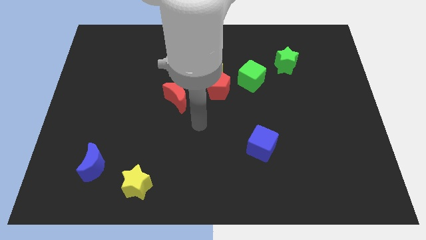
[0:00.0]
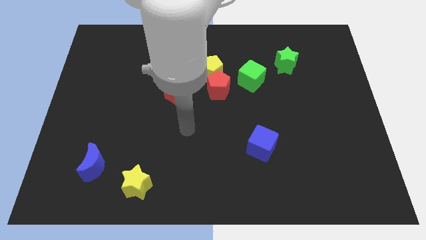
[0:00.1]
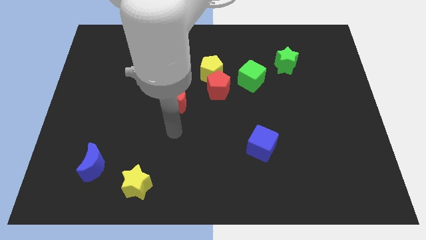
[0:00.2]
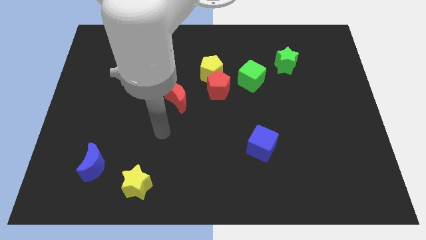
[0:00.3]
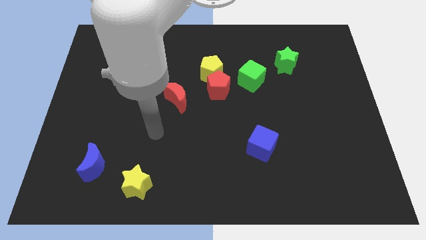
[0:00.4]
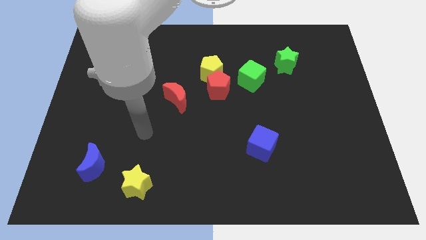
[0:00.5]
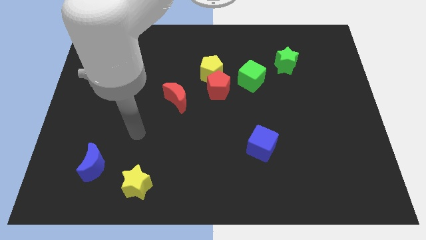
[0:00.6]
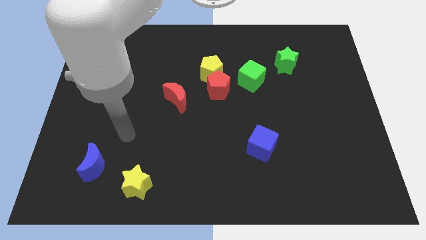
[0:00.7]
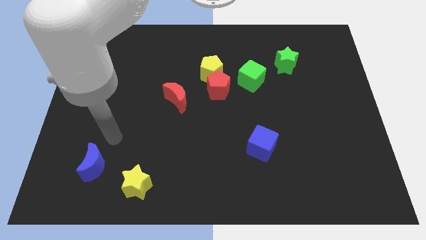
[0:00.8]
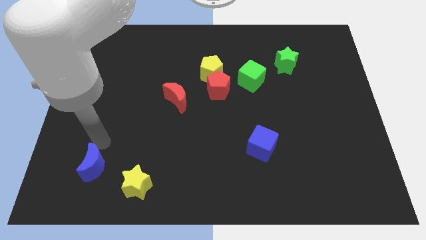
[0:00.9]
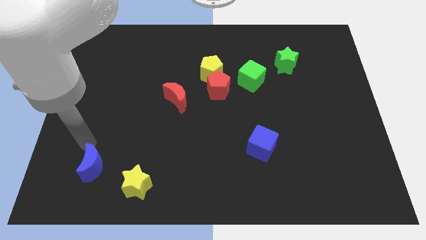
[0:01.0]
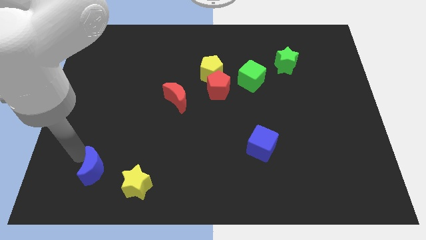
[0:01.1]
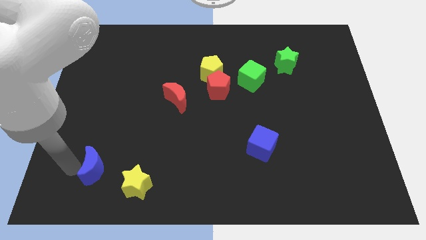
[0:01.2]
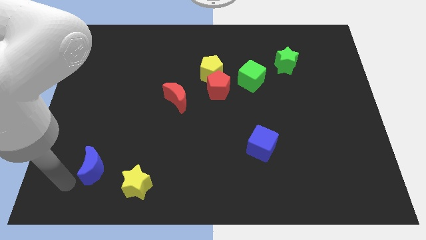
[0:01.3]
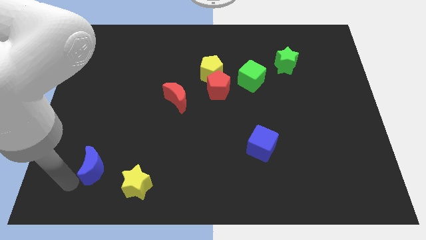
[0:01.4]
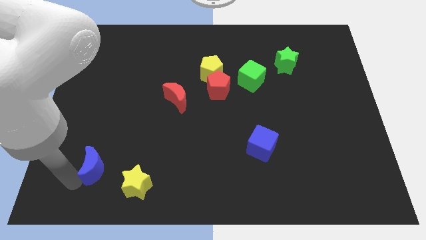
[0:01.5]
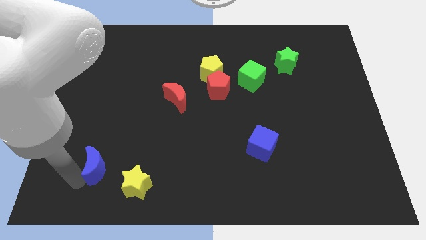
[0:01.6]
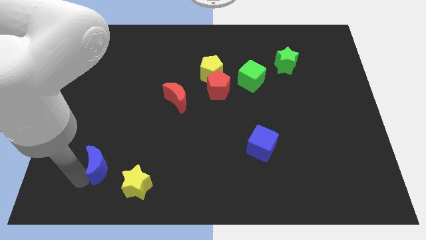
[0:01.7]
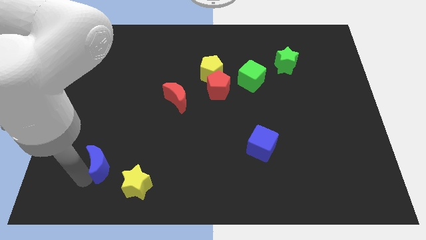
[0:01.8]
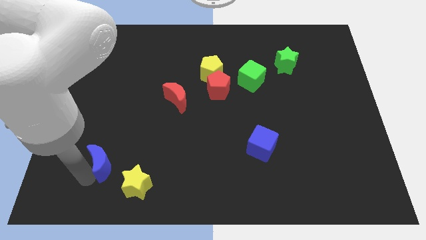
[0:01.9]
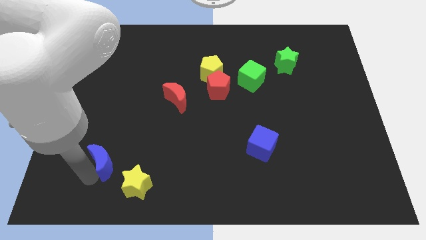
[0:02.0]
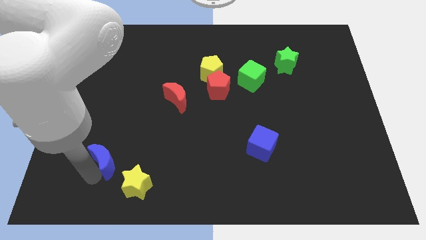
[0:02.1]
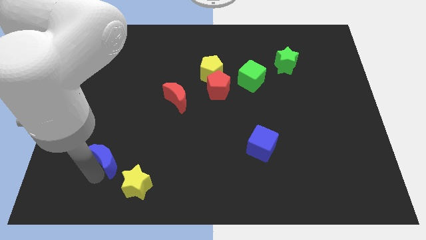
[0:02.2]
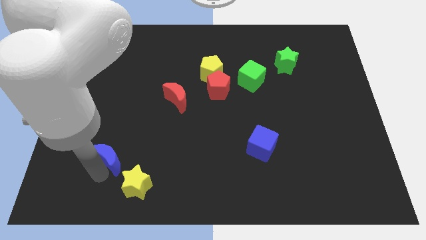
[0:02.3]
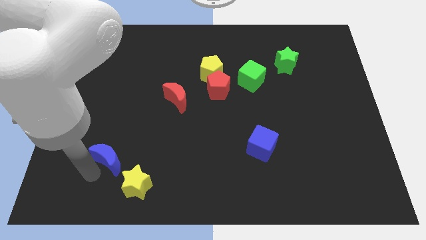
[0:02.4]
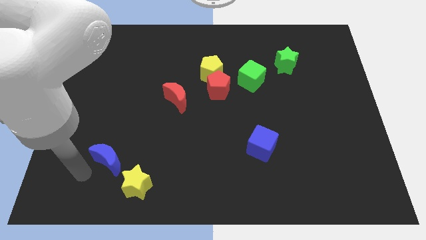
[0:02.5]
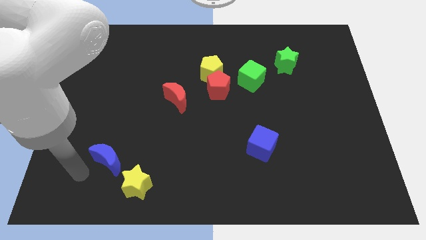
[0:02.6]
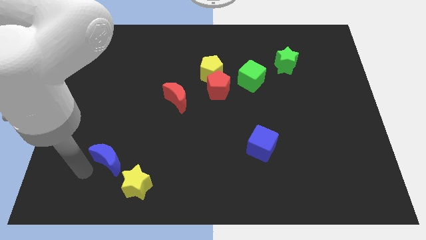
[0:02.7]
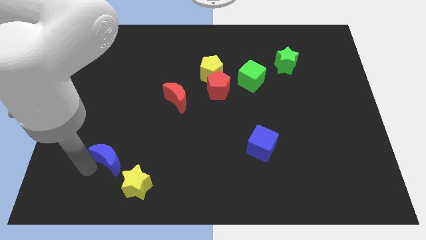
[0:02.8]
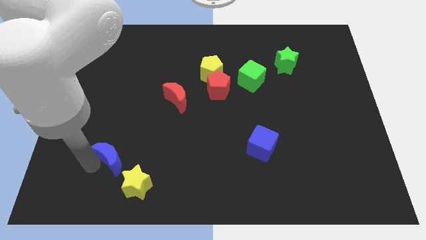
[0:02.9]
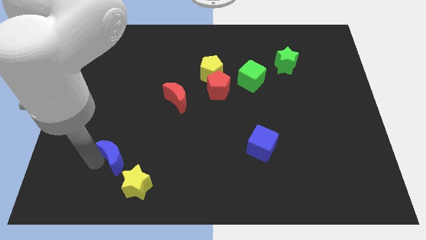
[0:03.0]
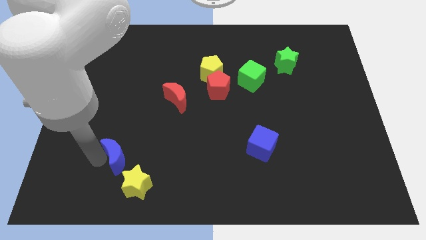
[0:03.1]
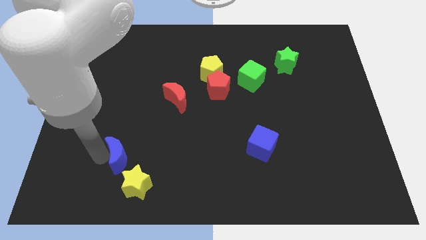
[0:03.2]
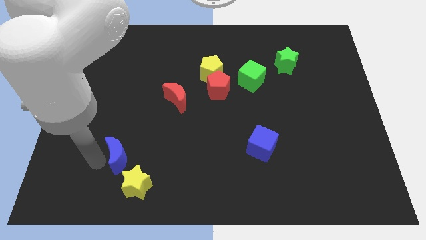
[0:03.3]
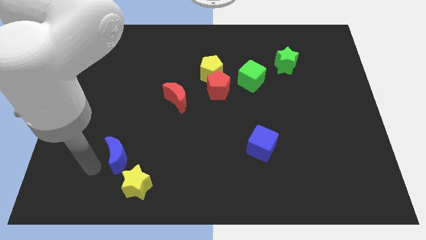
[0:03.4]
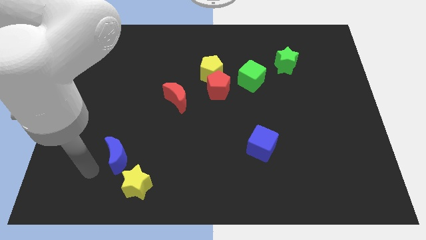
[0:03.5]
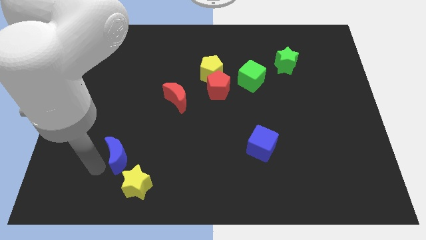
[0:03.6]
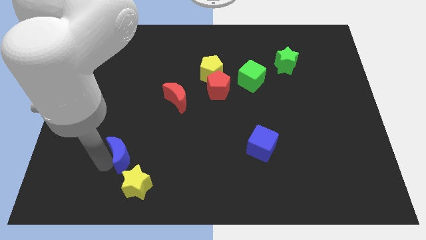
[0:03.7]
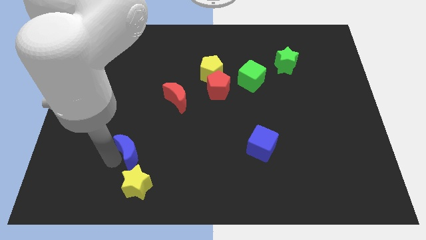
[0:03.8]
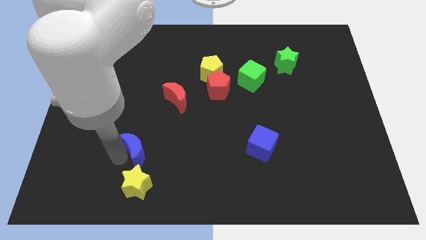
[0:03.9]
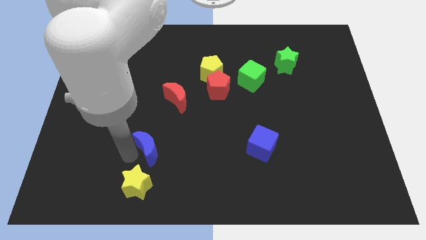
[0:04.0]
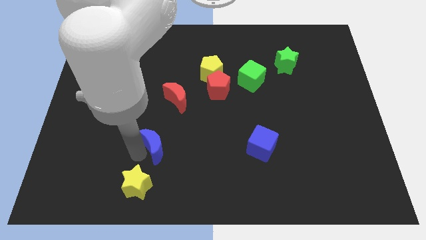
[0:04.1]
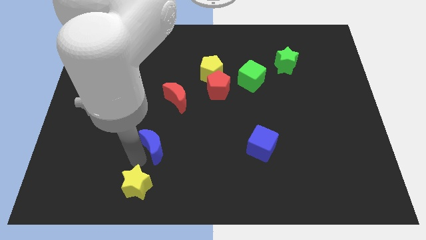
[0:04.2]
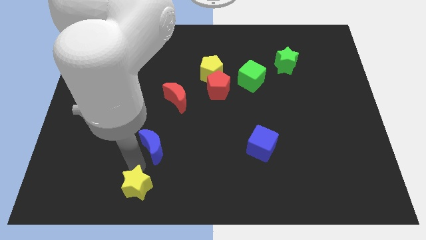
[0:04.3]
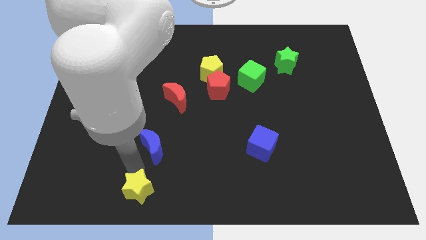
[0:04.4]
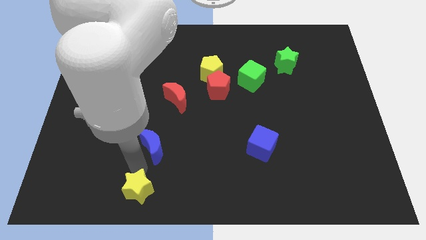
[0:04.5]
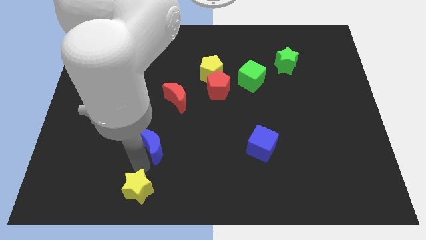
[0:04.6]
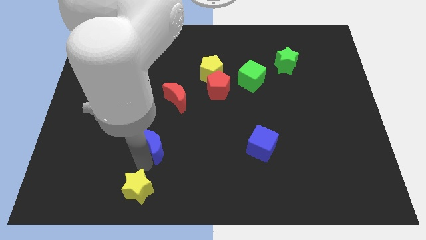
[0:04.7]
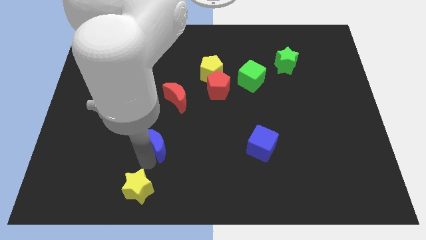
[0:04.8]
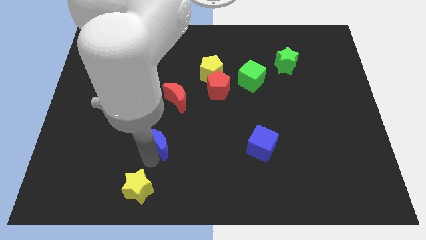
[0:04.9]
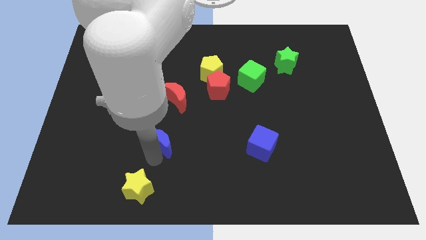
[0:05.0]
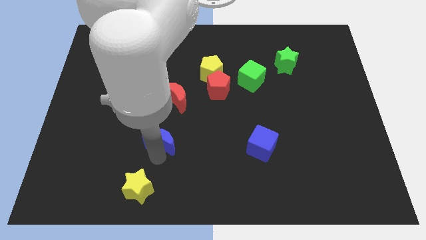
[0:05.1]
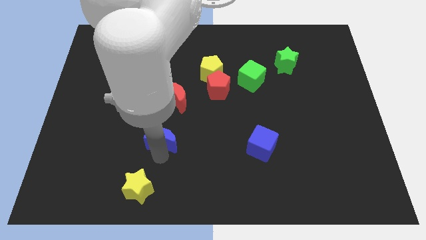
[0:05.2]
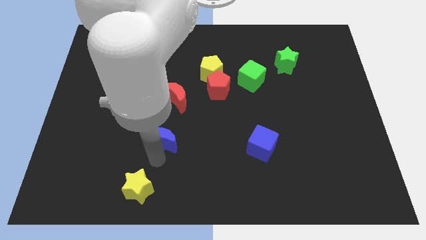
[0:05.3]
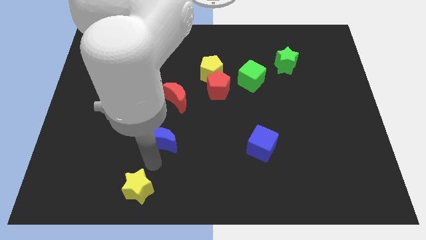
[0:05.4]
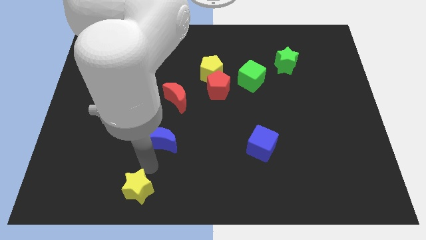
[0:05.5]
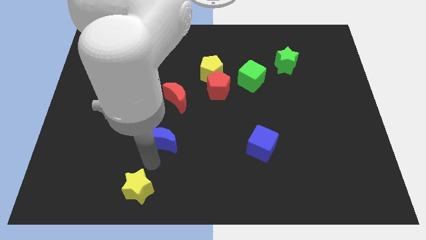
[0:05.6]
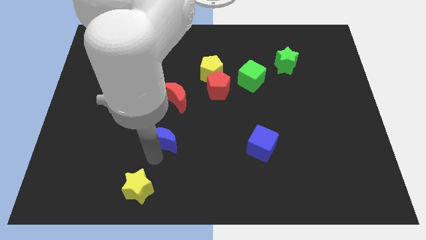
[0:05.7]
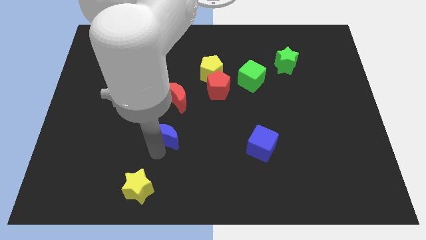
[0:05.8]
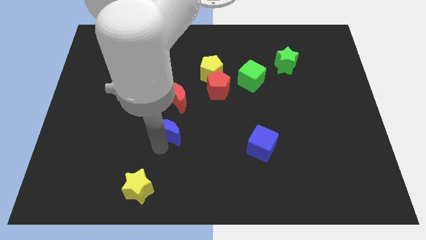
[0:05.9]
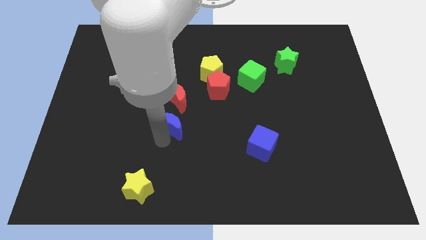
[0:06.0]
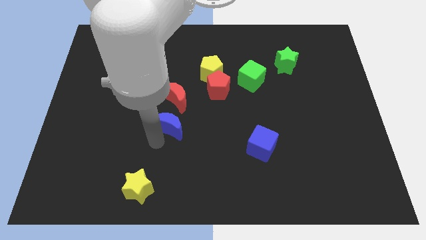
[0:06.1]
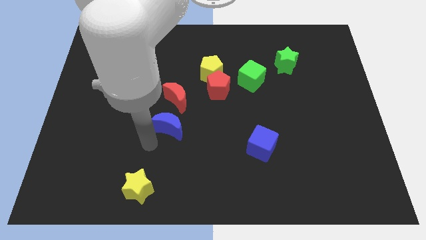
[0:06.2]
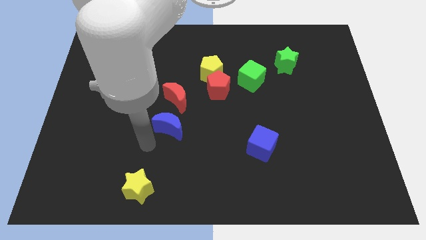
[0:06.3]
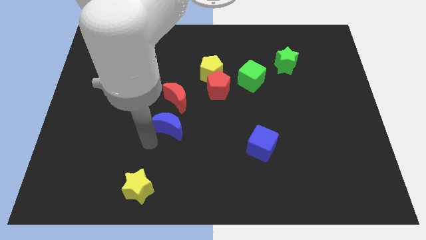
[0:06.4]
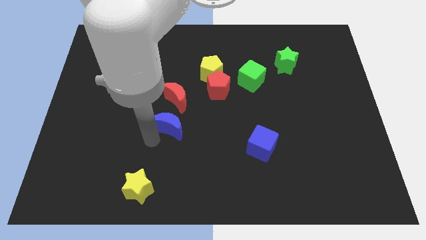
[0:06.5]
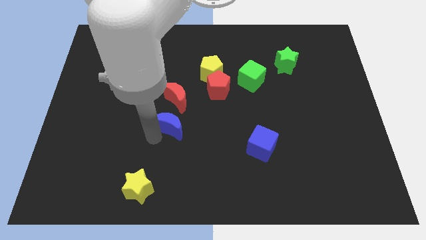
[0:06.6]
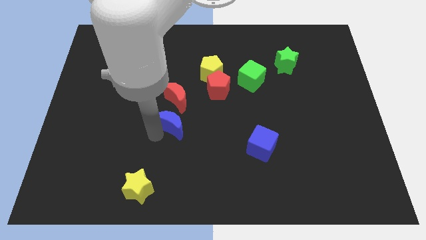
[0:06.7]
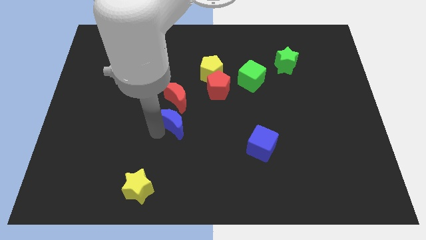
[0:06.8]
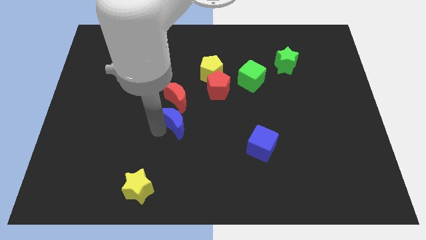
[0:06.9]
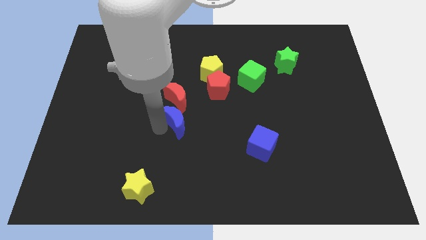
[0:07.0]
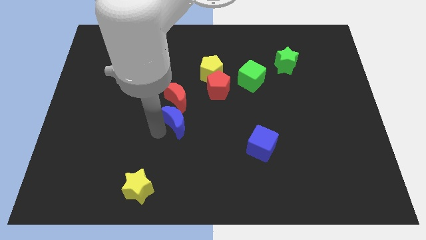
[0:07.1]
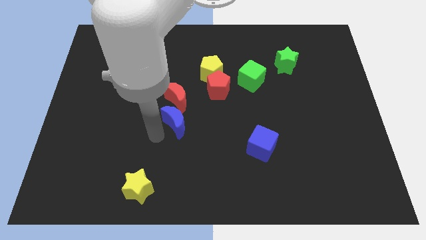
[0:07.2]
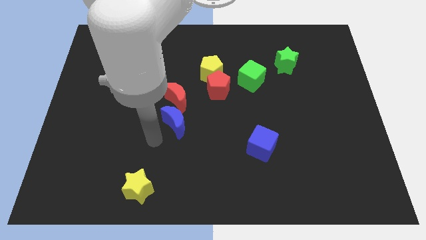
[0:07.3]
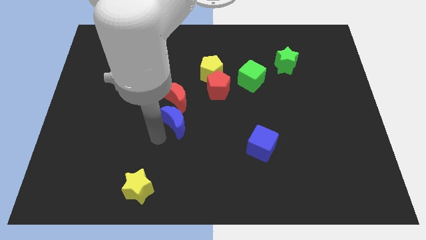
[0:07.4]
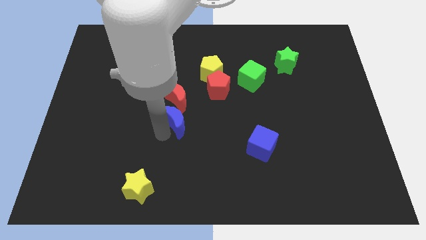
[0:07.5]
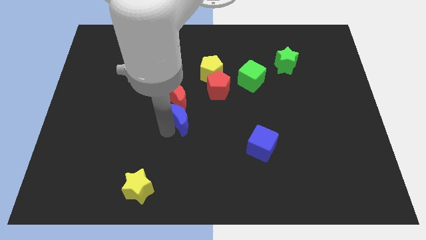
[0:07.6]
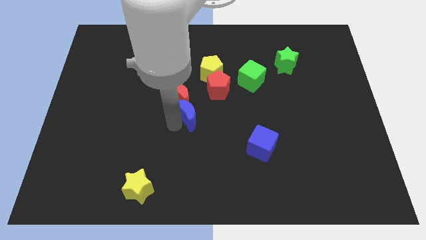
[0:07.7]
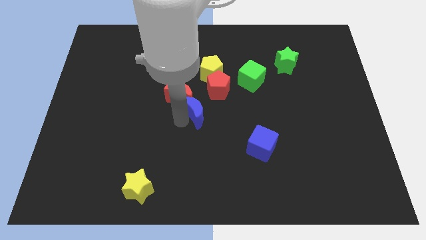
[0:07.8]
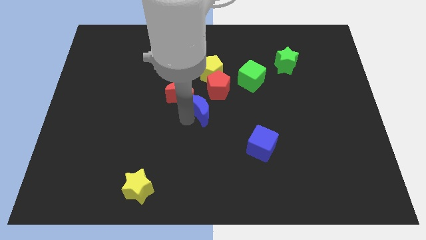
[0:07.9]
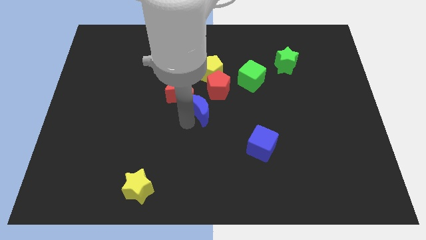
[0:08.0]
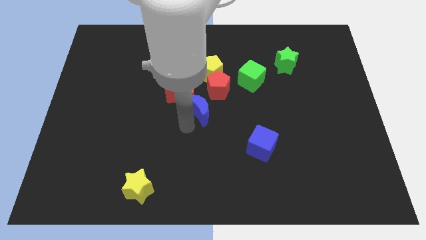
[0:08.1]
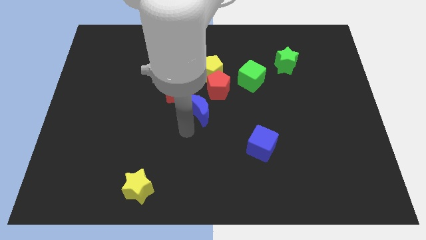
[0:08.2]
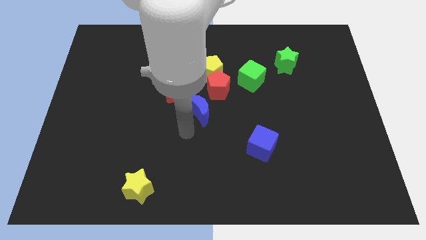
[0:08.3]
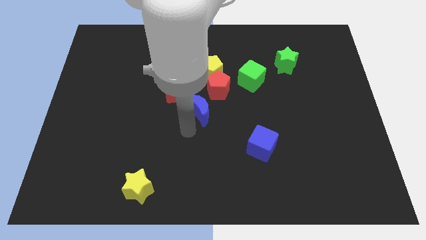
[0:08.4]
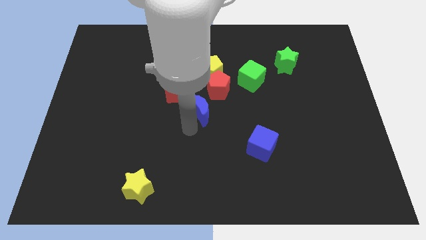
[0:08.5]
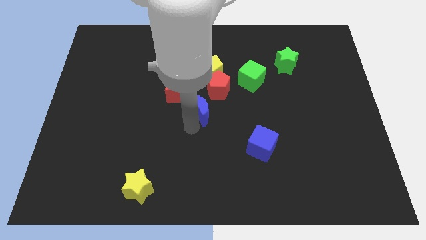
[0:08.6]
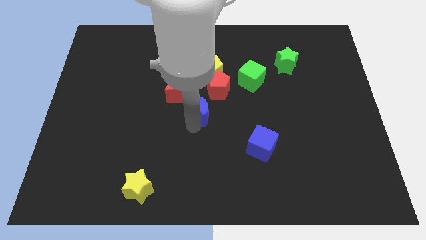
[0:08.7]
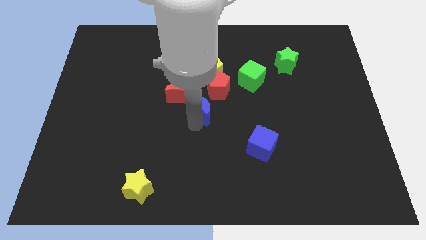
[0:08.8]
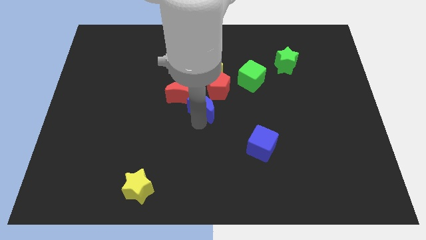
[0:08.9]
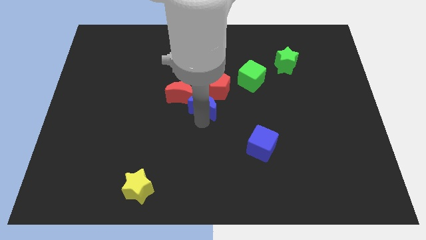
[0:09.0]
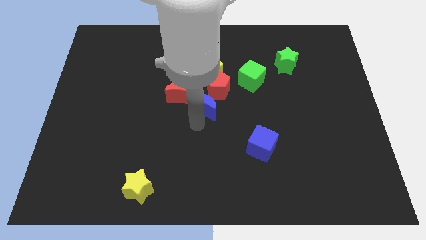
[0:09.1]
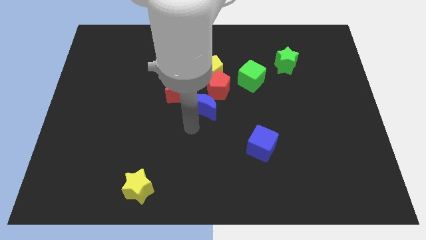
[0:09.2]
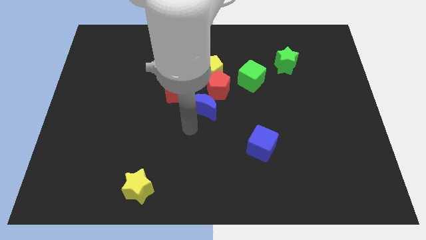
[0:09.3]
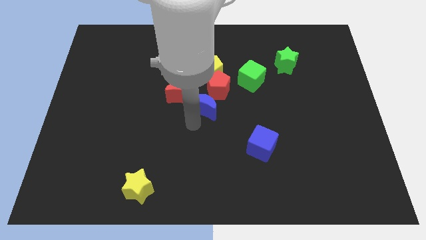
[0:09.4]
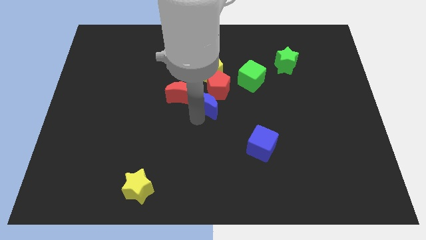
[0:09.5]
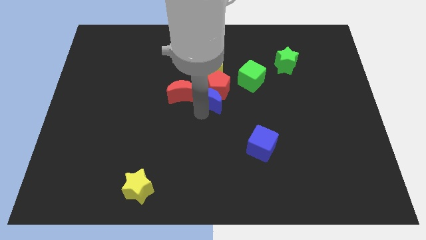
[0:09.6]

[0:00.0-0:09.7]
put the blue moon to the red pentagon
